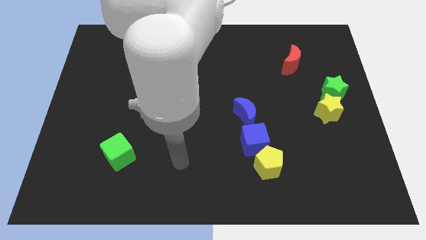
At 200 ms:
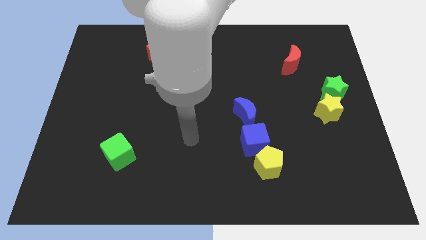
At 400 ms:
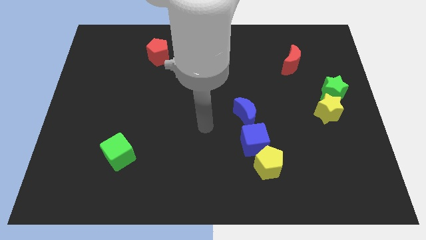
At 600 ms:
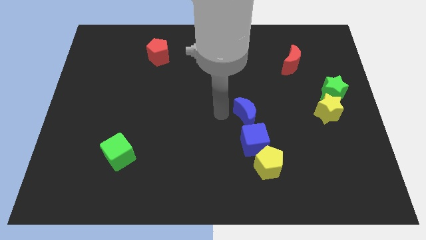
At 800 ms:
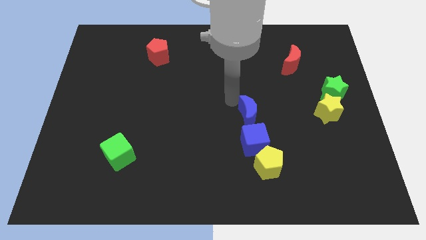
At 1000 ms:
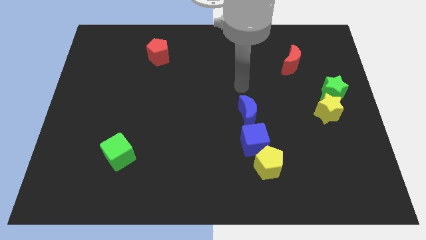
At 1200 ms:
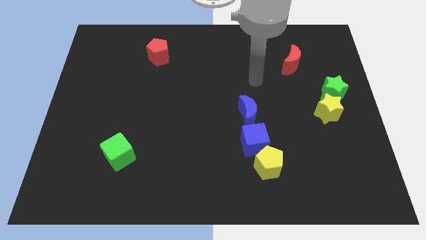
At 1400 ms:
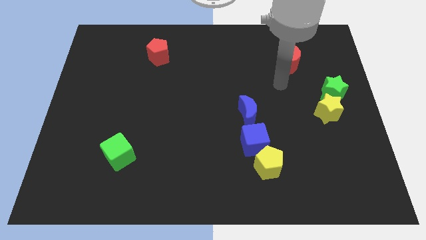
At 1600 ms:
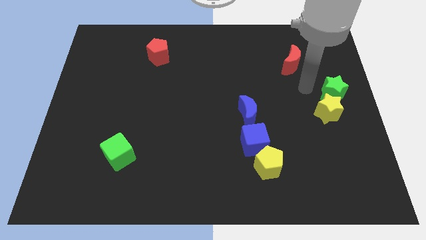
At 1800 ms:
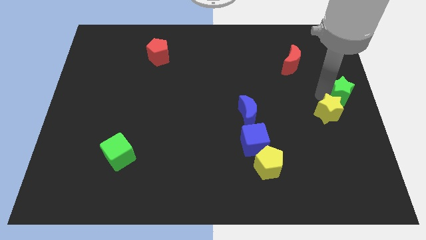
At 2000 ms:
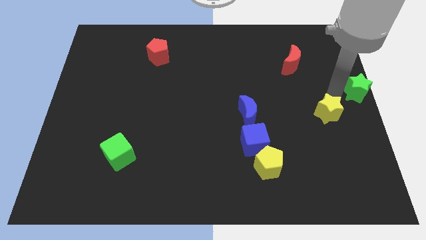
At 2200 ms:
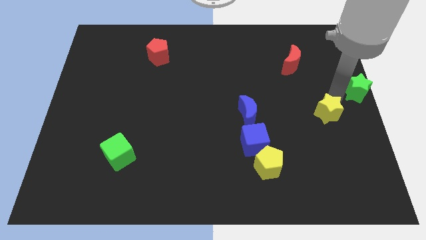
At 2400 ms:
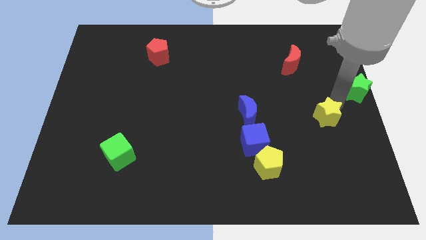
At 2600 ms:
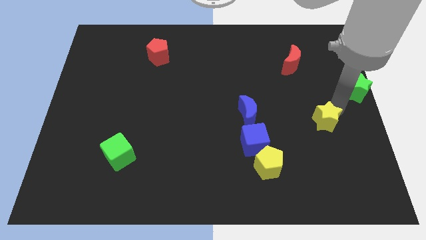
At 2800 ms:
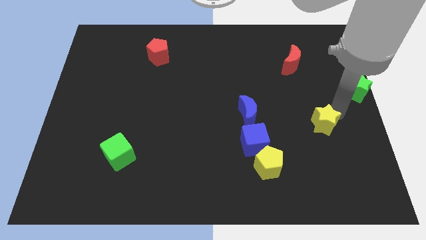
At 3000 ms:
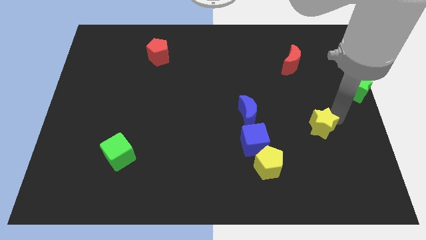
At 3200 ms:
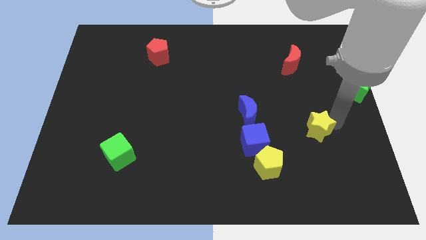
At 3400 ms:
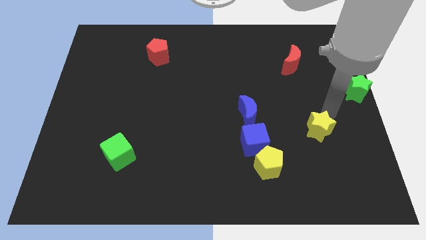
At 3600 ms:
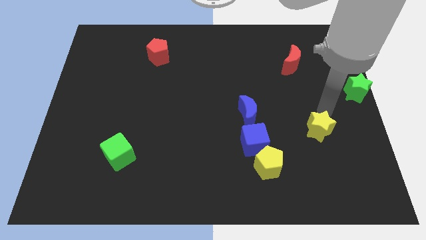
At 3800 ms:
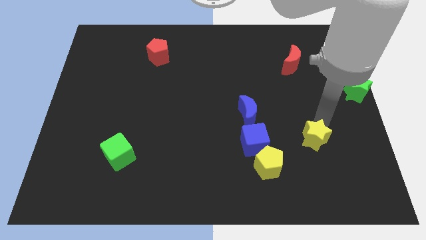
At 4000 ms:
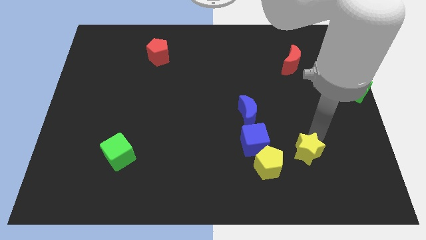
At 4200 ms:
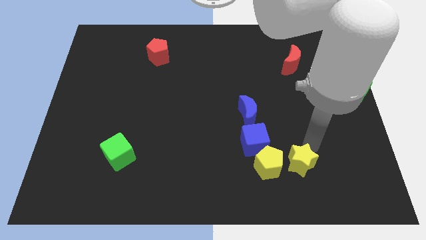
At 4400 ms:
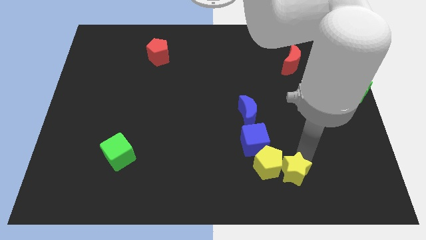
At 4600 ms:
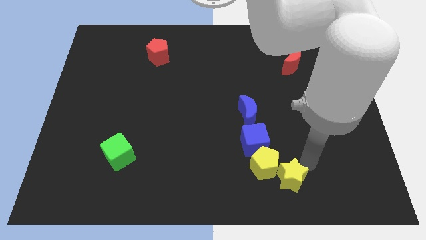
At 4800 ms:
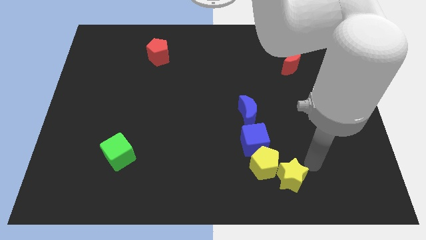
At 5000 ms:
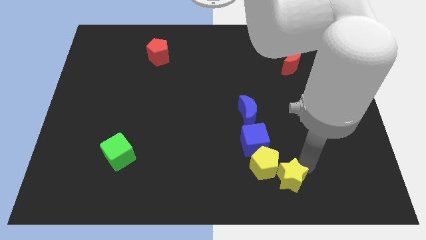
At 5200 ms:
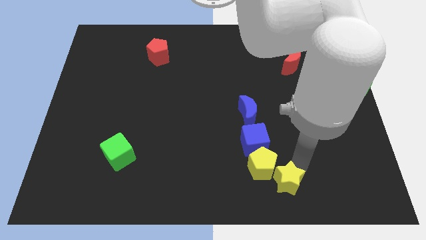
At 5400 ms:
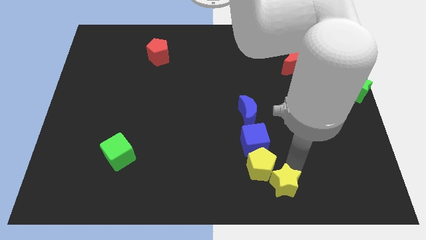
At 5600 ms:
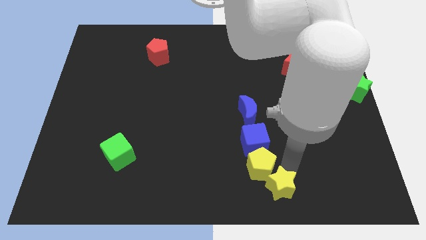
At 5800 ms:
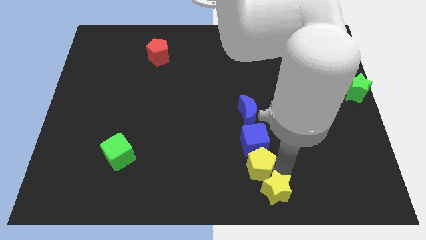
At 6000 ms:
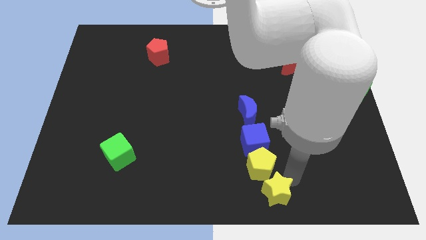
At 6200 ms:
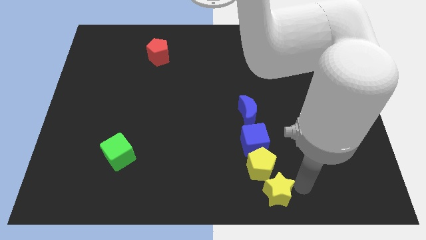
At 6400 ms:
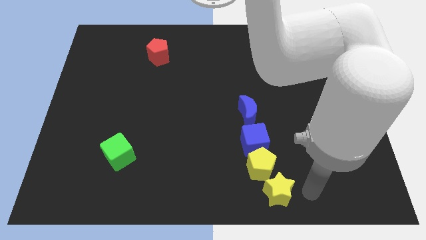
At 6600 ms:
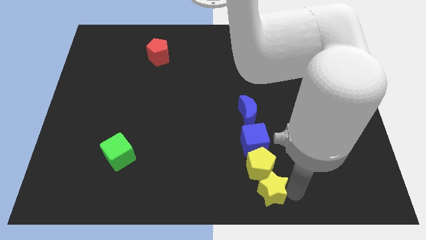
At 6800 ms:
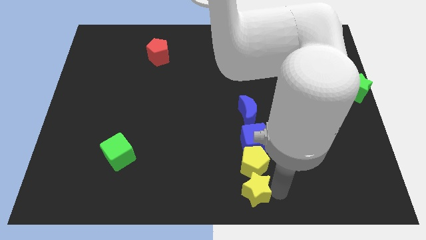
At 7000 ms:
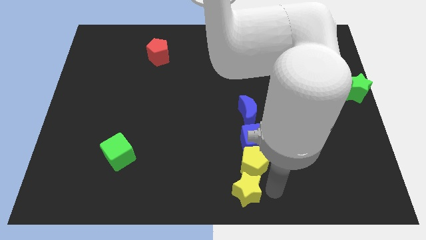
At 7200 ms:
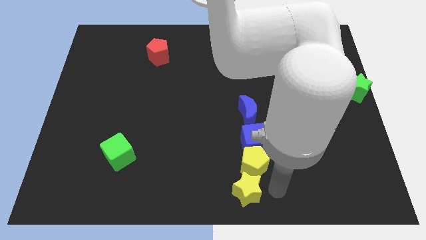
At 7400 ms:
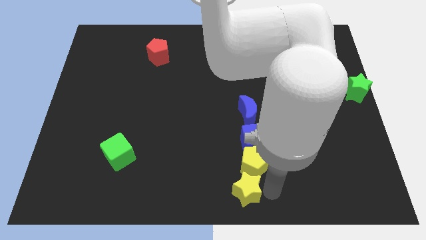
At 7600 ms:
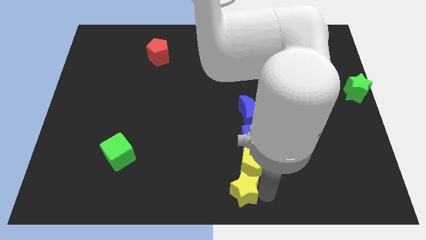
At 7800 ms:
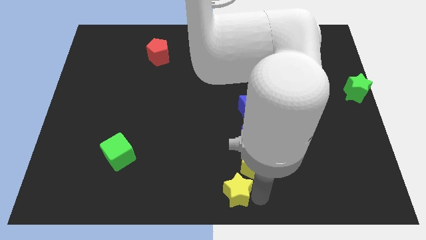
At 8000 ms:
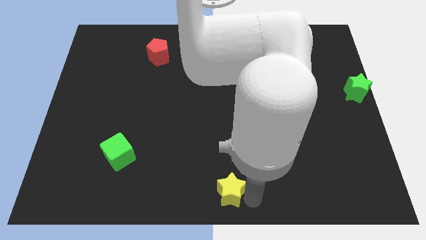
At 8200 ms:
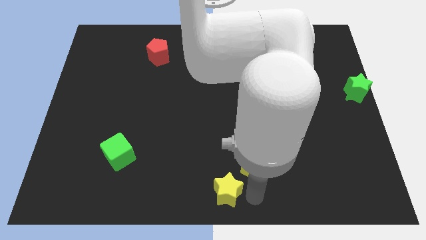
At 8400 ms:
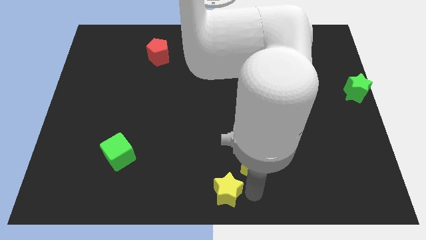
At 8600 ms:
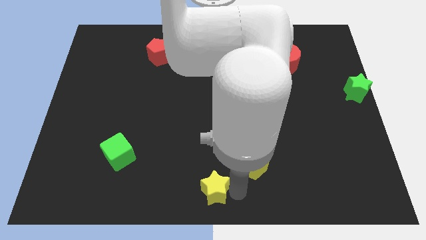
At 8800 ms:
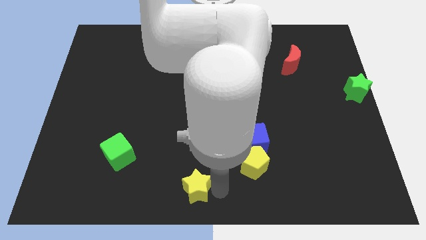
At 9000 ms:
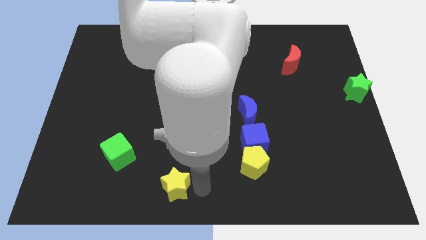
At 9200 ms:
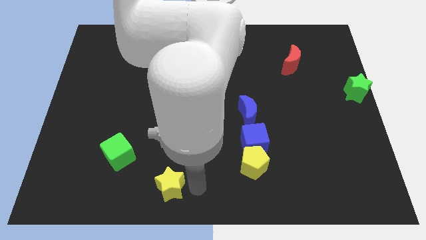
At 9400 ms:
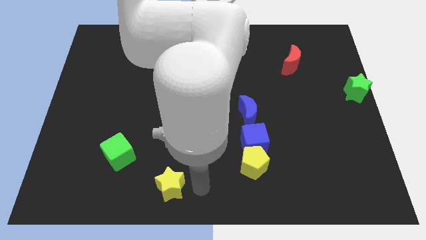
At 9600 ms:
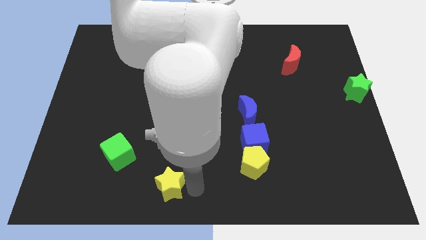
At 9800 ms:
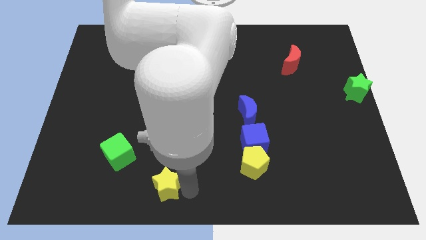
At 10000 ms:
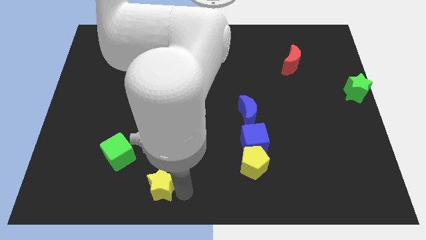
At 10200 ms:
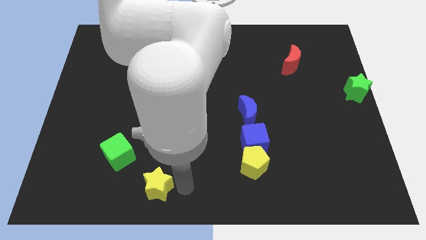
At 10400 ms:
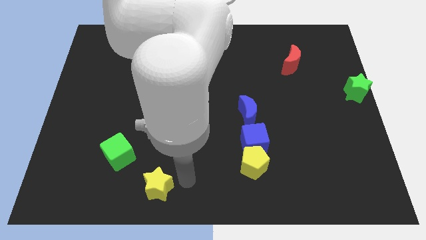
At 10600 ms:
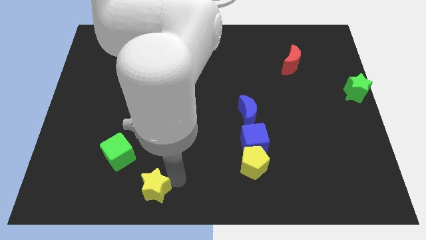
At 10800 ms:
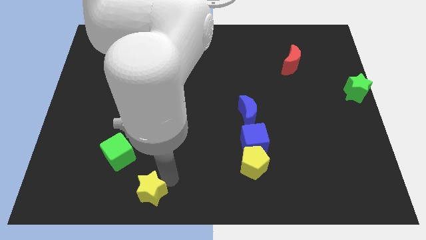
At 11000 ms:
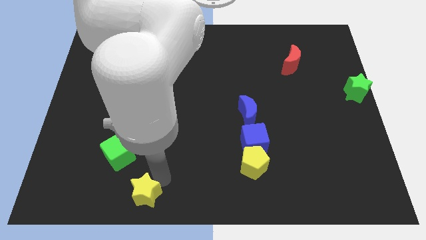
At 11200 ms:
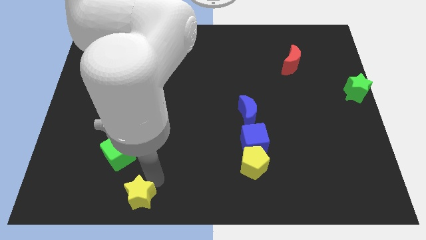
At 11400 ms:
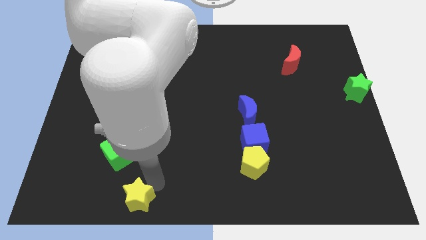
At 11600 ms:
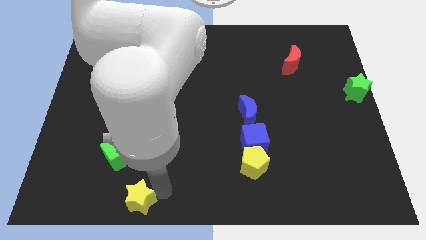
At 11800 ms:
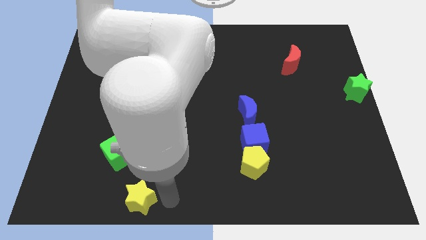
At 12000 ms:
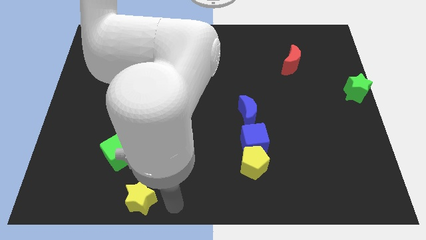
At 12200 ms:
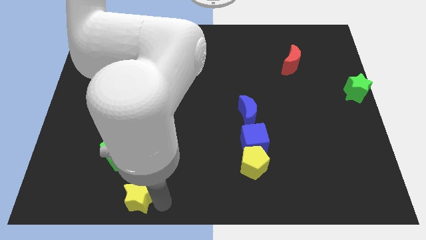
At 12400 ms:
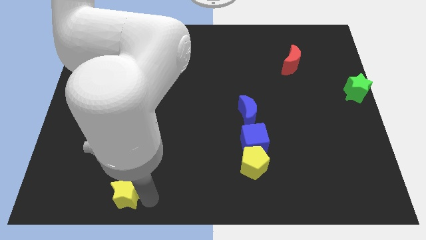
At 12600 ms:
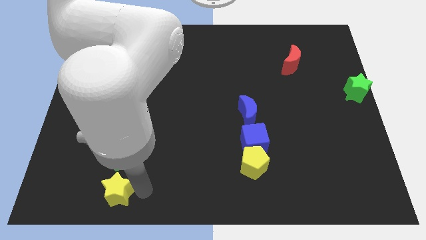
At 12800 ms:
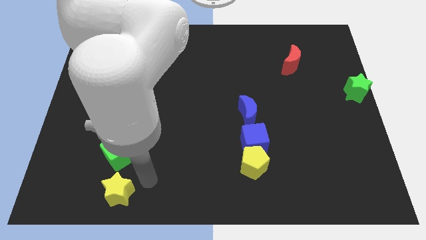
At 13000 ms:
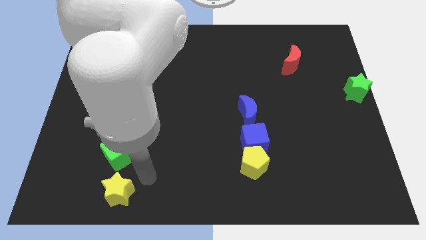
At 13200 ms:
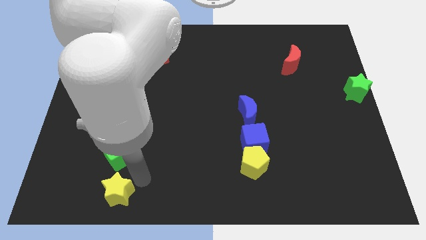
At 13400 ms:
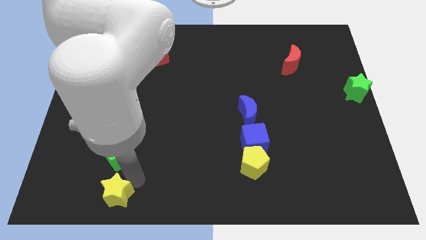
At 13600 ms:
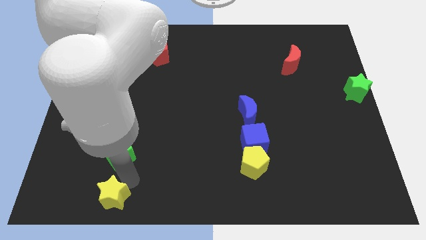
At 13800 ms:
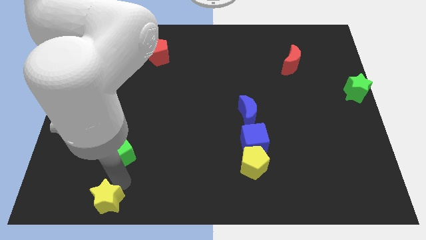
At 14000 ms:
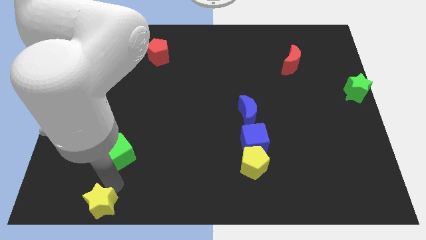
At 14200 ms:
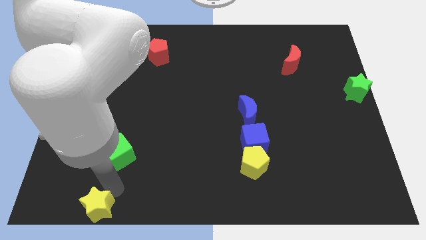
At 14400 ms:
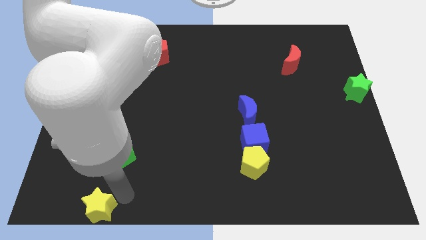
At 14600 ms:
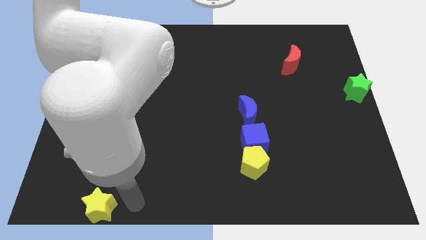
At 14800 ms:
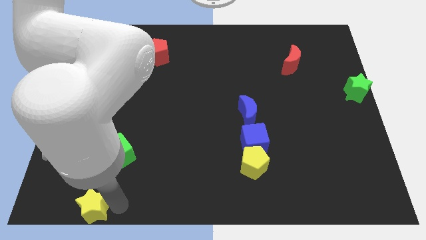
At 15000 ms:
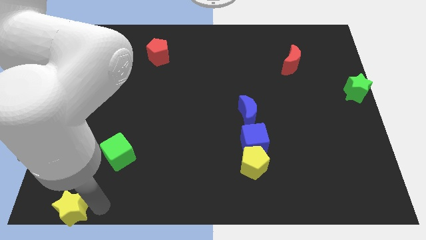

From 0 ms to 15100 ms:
move the yellow star to the bottom left of the board

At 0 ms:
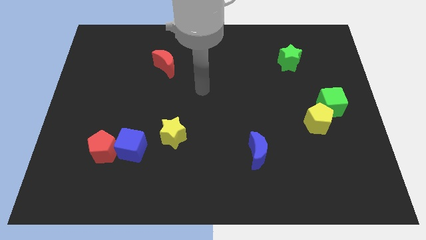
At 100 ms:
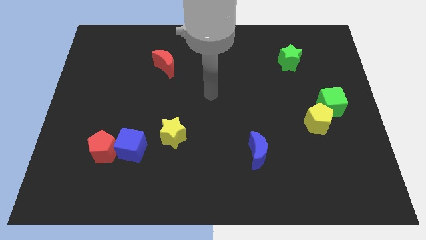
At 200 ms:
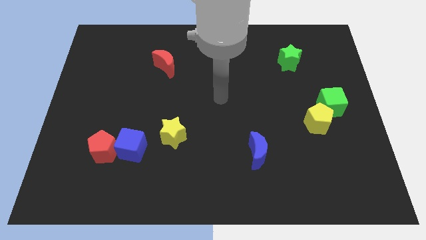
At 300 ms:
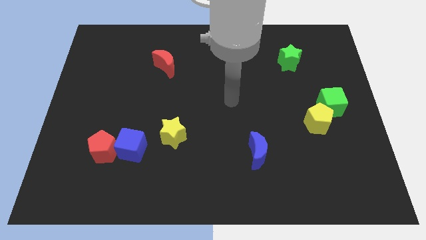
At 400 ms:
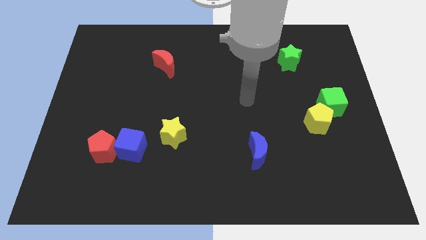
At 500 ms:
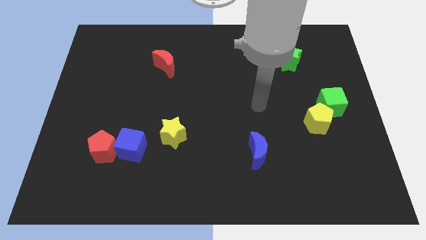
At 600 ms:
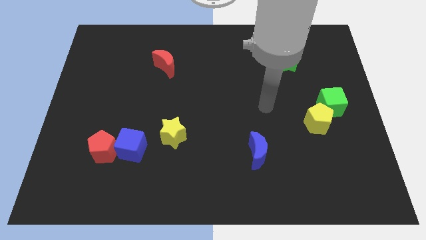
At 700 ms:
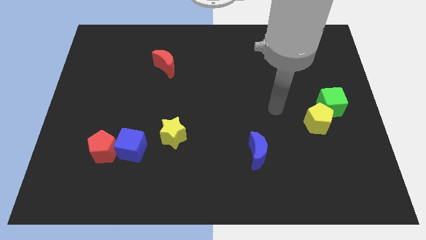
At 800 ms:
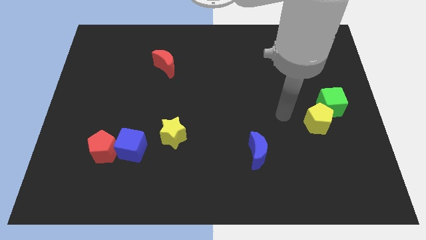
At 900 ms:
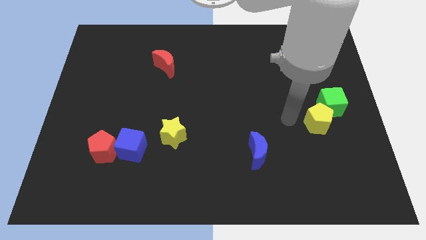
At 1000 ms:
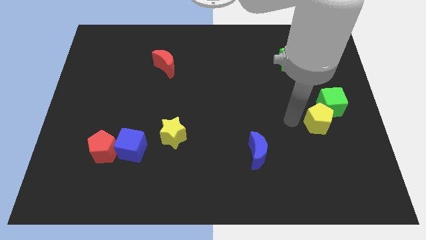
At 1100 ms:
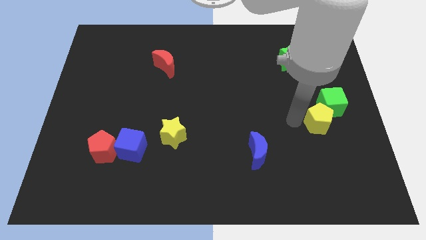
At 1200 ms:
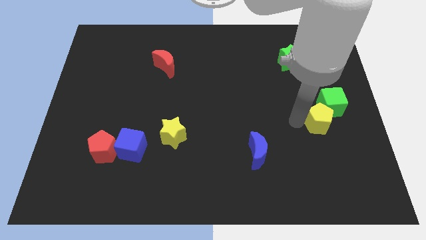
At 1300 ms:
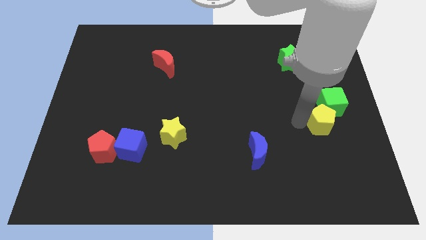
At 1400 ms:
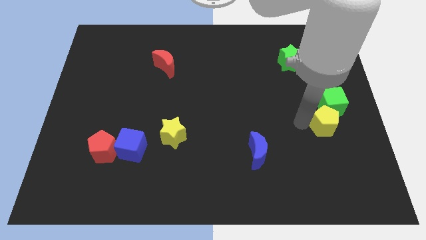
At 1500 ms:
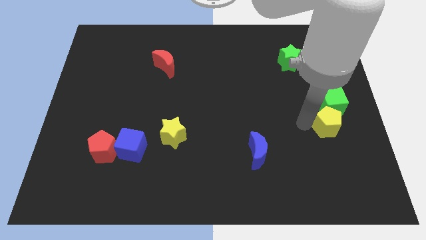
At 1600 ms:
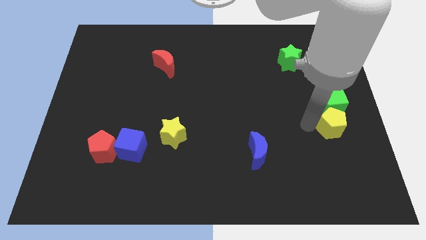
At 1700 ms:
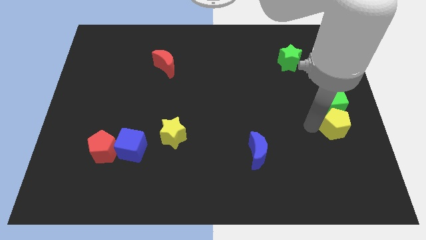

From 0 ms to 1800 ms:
move the yellow pentagon to the right side of the board
